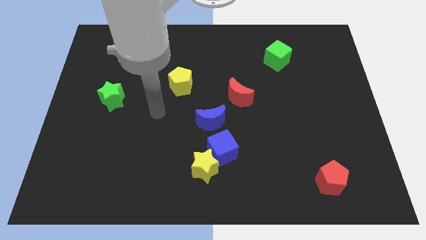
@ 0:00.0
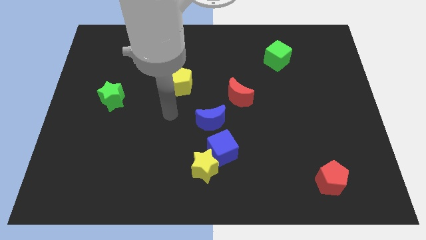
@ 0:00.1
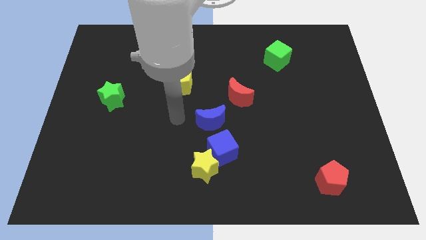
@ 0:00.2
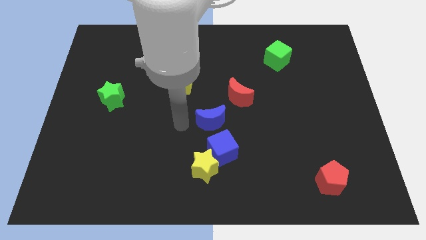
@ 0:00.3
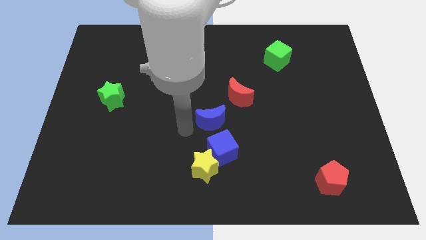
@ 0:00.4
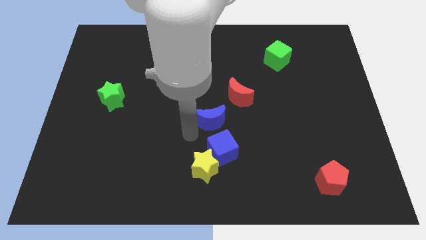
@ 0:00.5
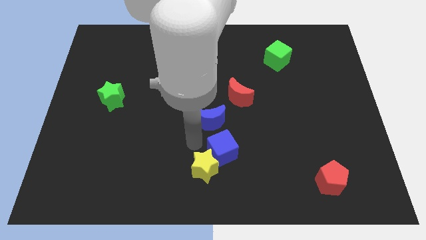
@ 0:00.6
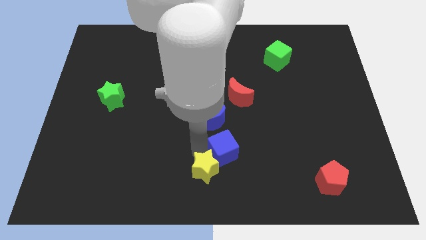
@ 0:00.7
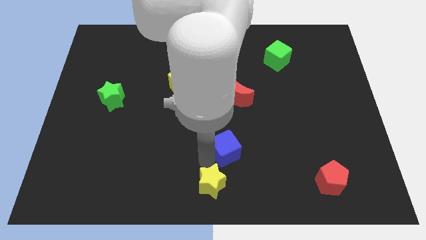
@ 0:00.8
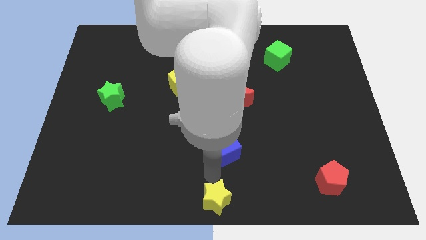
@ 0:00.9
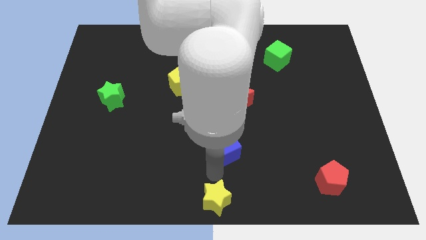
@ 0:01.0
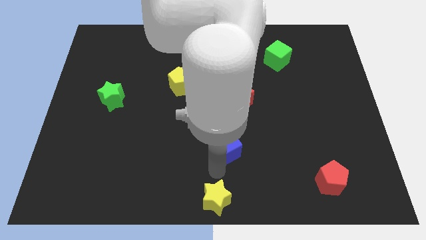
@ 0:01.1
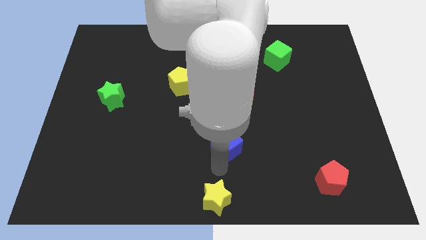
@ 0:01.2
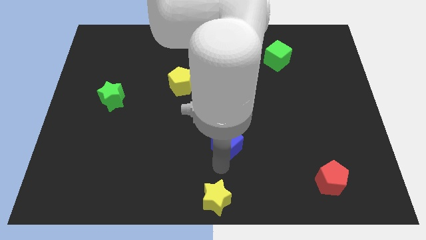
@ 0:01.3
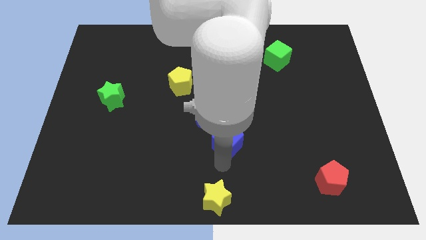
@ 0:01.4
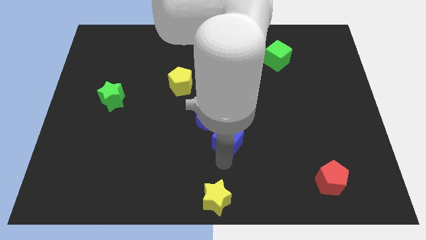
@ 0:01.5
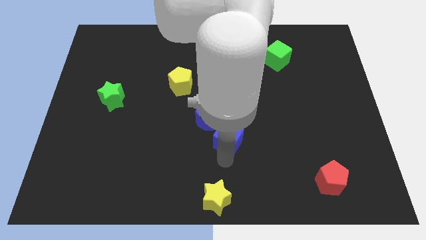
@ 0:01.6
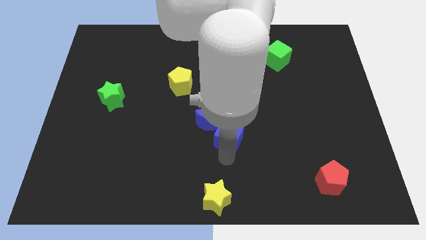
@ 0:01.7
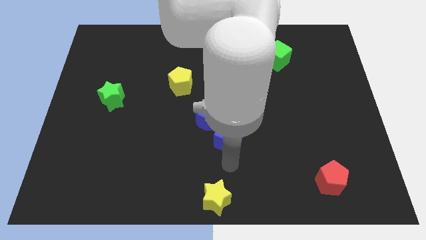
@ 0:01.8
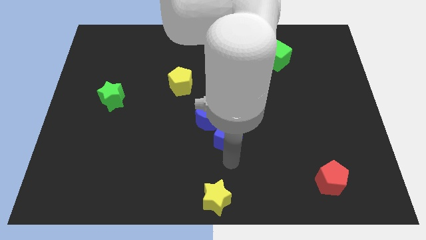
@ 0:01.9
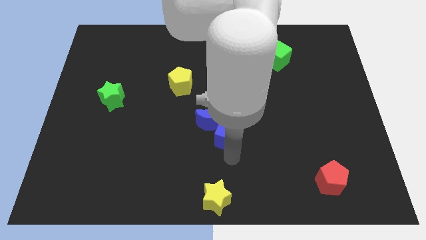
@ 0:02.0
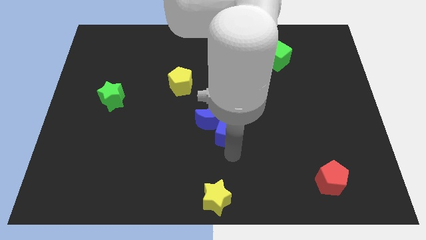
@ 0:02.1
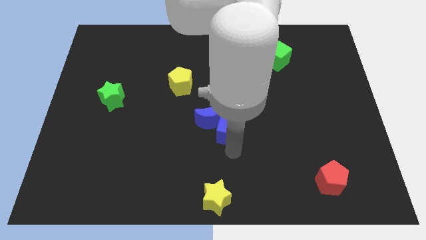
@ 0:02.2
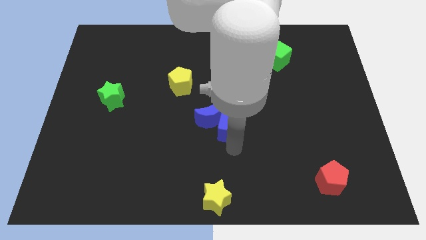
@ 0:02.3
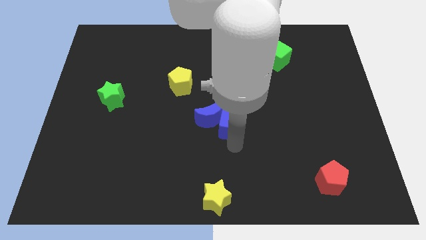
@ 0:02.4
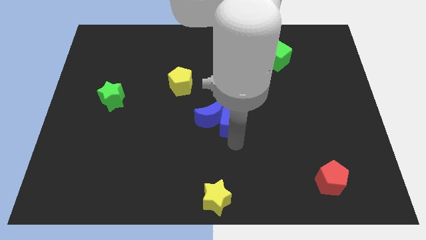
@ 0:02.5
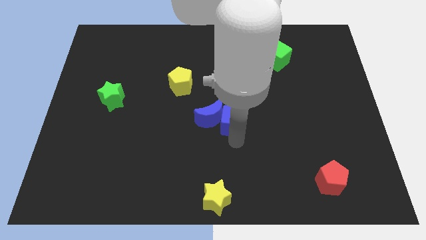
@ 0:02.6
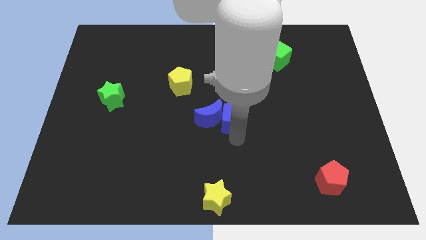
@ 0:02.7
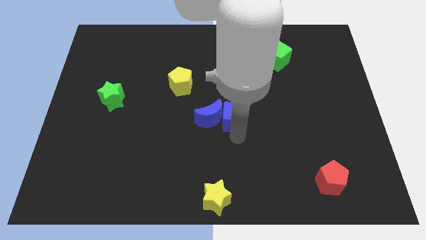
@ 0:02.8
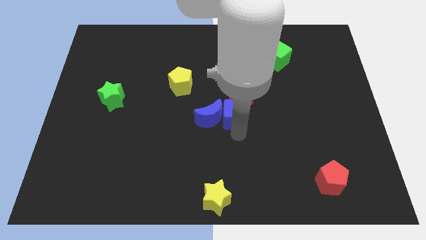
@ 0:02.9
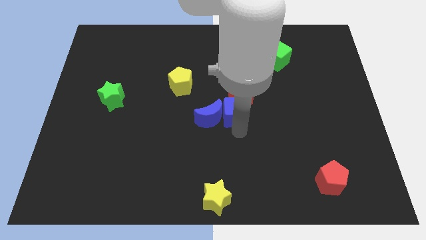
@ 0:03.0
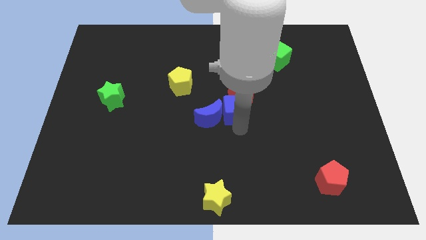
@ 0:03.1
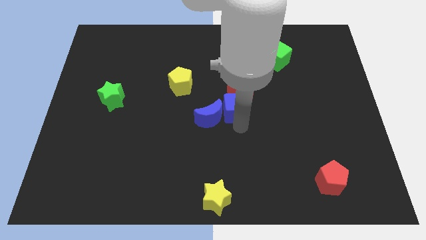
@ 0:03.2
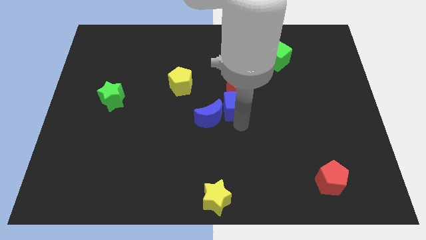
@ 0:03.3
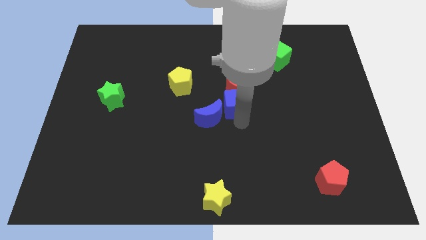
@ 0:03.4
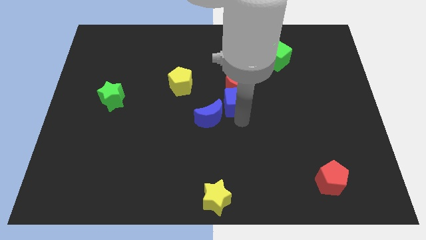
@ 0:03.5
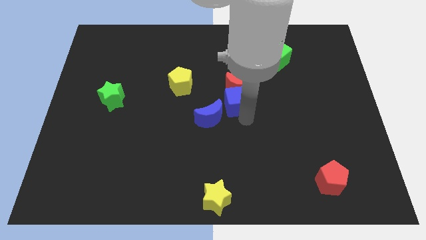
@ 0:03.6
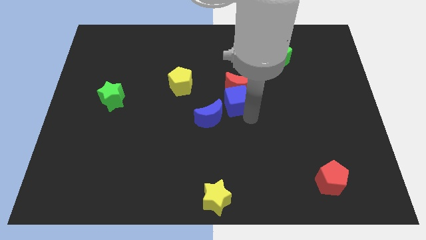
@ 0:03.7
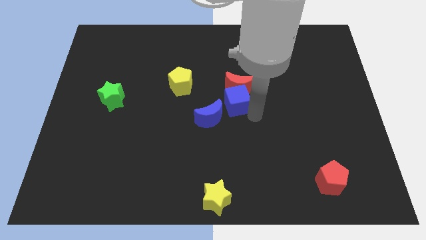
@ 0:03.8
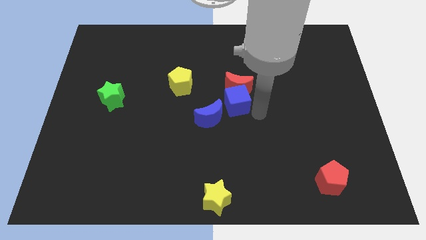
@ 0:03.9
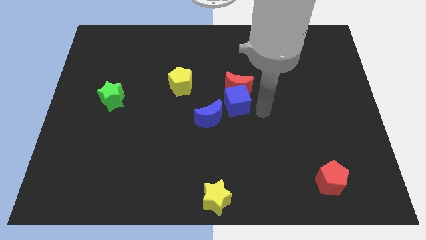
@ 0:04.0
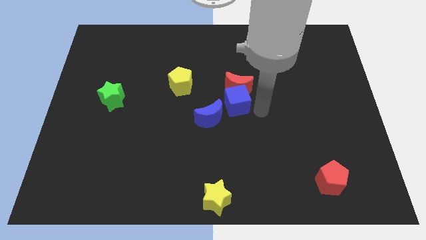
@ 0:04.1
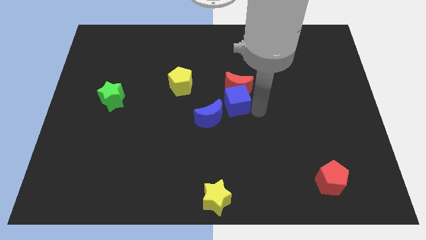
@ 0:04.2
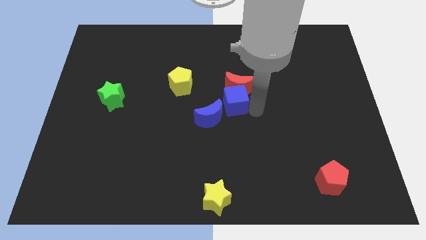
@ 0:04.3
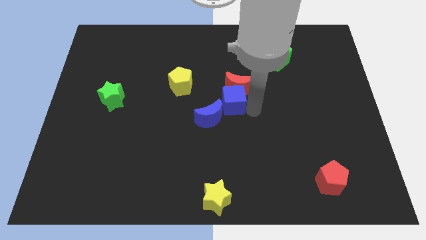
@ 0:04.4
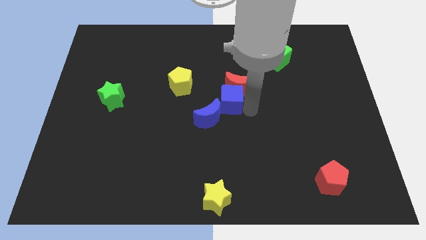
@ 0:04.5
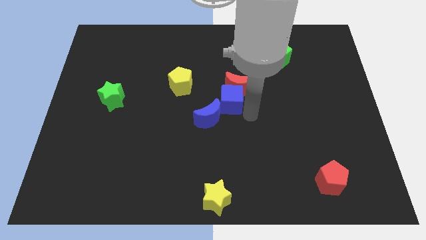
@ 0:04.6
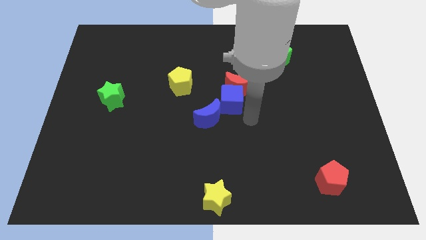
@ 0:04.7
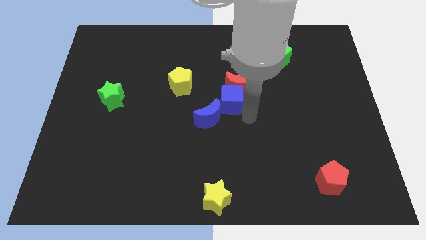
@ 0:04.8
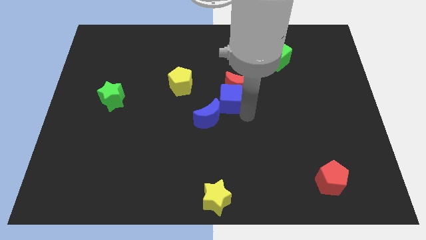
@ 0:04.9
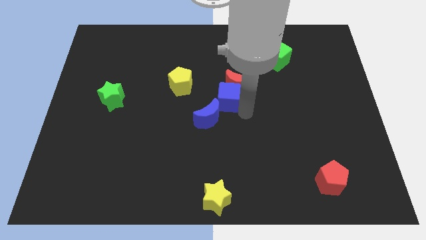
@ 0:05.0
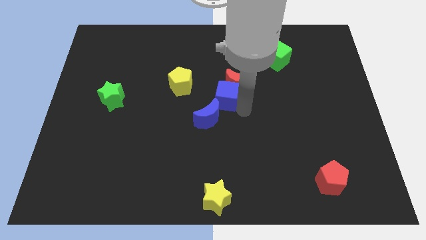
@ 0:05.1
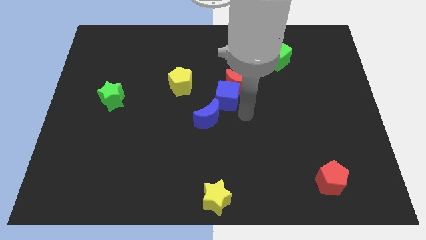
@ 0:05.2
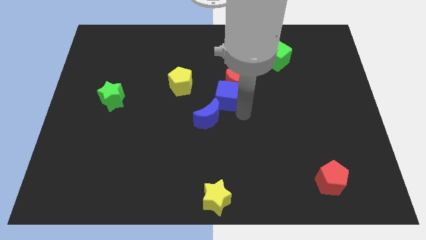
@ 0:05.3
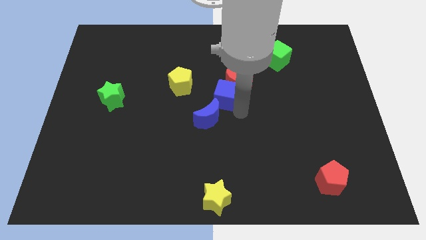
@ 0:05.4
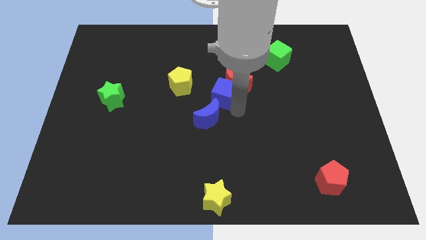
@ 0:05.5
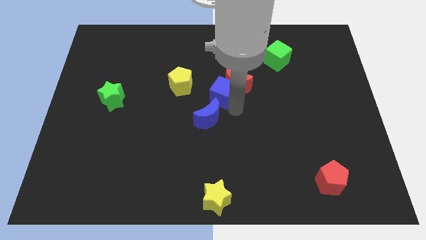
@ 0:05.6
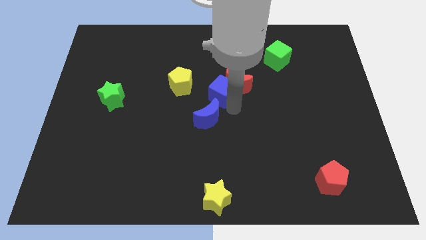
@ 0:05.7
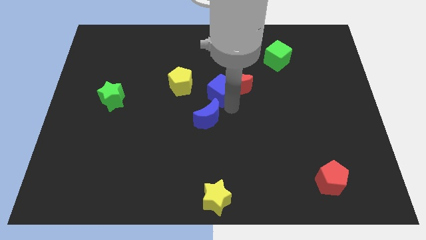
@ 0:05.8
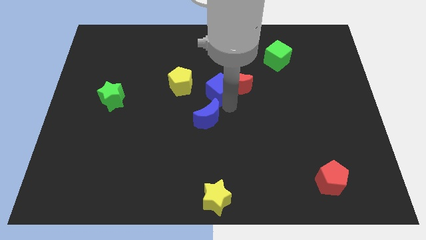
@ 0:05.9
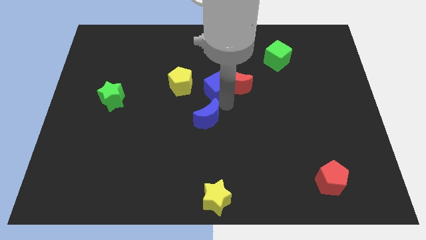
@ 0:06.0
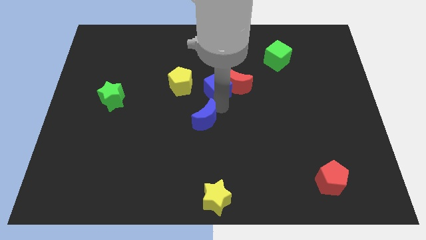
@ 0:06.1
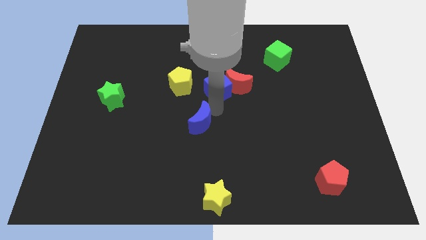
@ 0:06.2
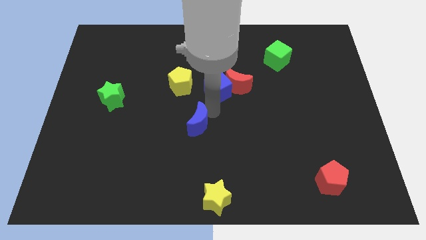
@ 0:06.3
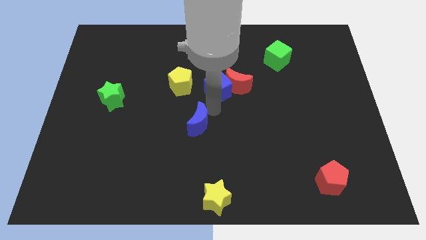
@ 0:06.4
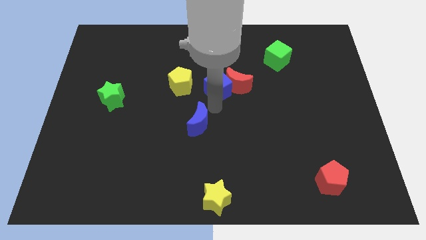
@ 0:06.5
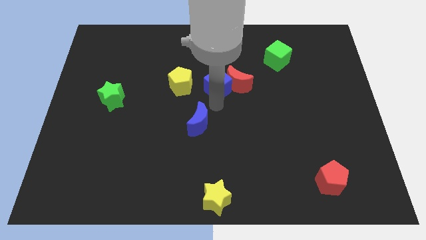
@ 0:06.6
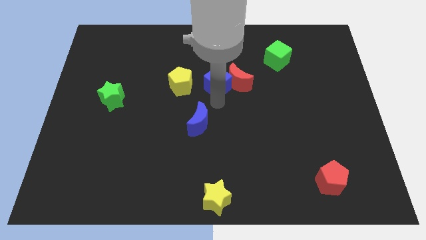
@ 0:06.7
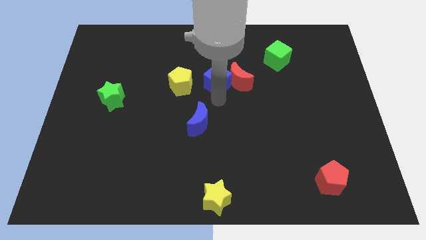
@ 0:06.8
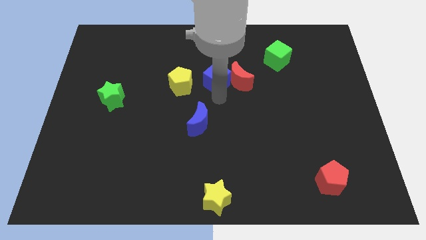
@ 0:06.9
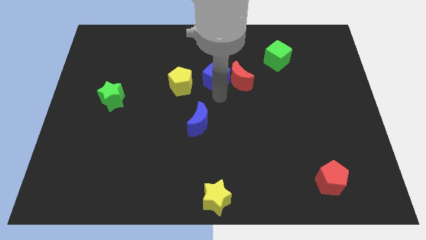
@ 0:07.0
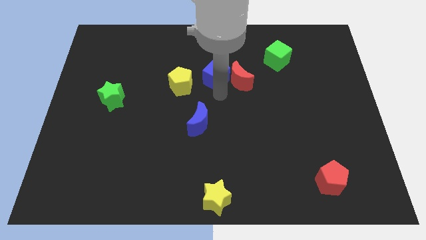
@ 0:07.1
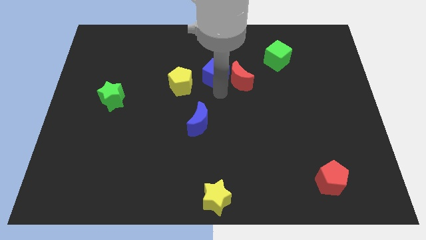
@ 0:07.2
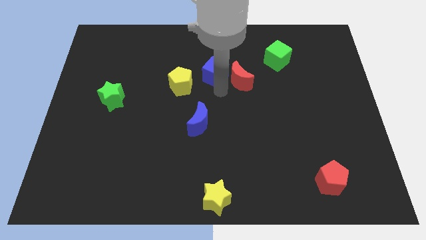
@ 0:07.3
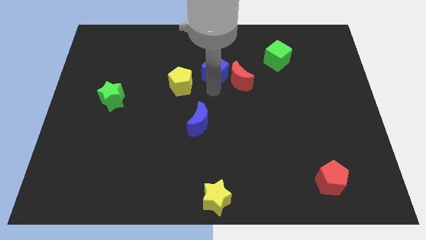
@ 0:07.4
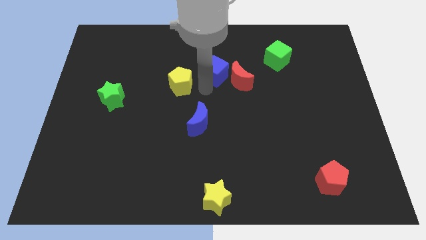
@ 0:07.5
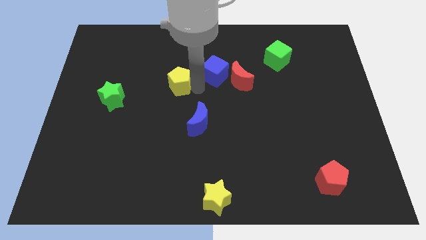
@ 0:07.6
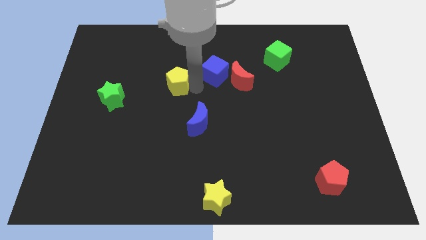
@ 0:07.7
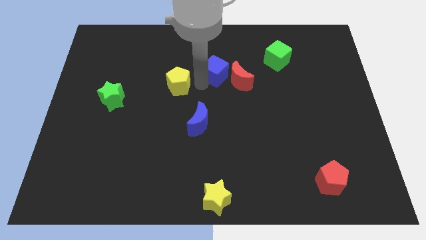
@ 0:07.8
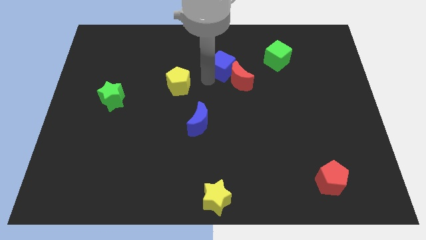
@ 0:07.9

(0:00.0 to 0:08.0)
move the blue cube to the left of the green cube
